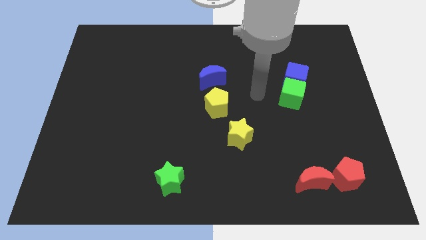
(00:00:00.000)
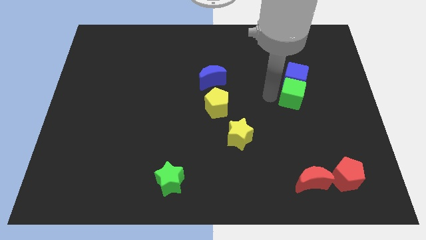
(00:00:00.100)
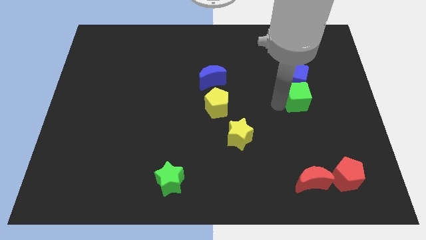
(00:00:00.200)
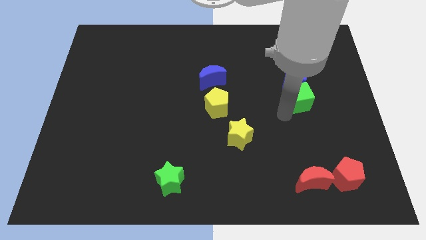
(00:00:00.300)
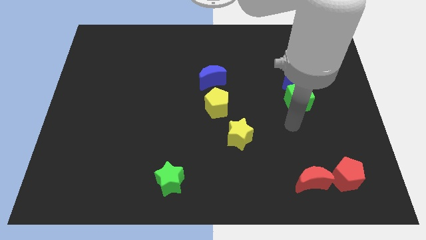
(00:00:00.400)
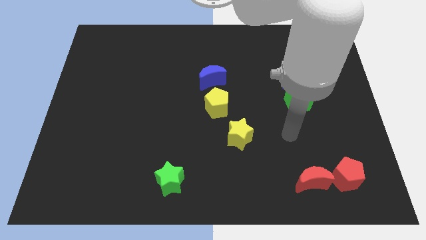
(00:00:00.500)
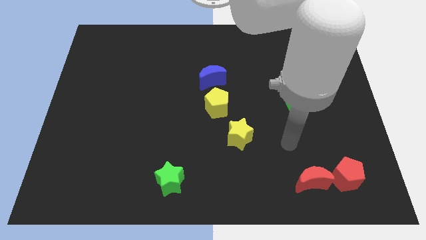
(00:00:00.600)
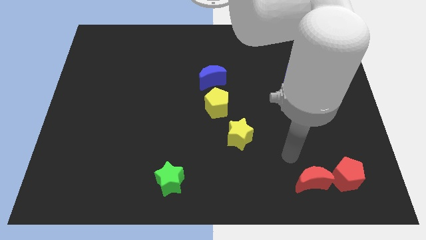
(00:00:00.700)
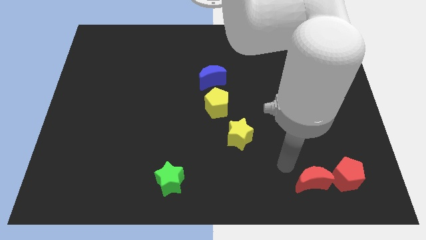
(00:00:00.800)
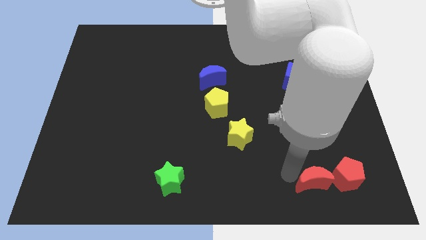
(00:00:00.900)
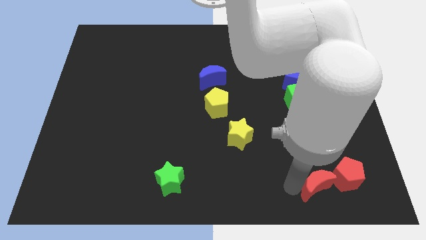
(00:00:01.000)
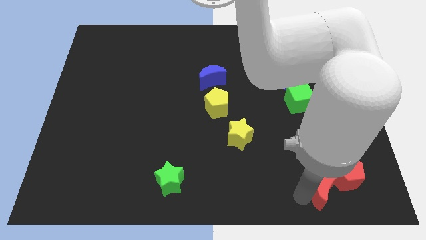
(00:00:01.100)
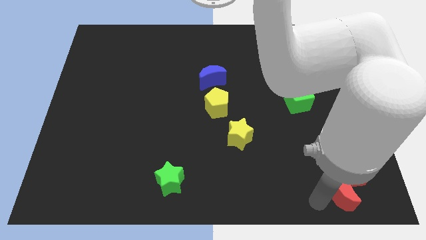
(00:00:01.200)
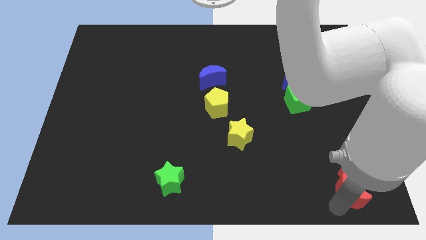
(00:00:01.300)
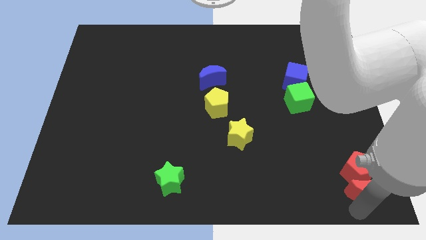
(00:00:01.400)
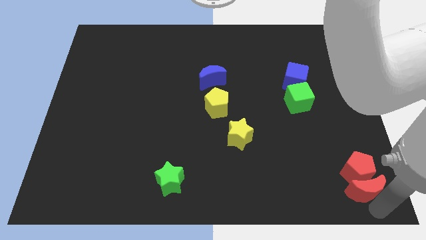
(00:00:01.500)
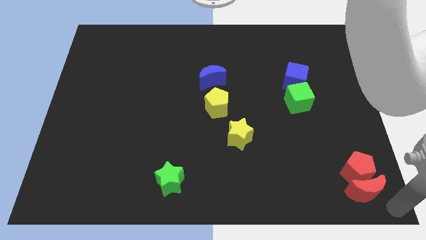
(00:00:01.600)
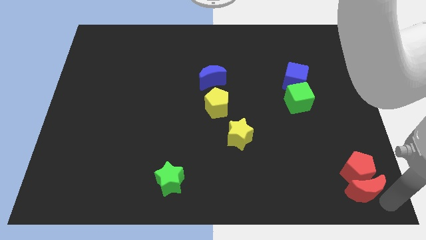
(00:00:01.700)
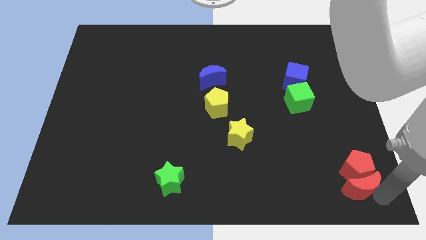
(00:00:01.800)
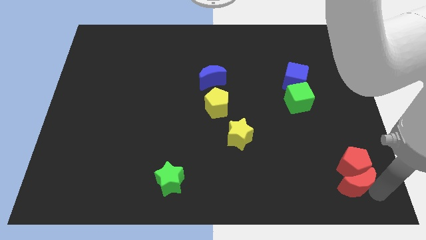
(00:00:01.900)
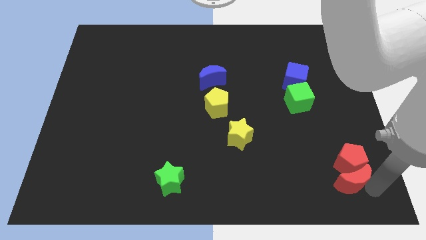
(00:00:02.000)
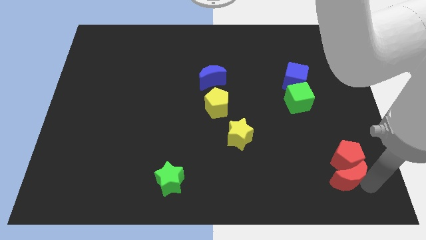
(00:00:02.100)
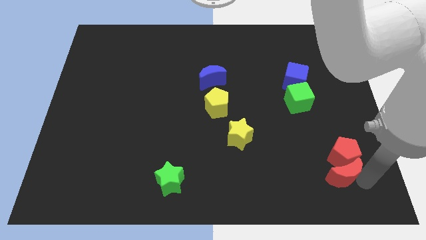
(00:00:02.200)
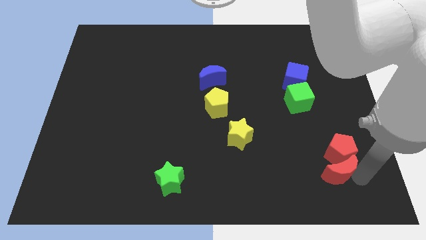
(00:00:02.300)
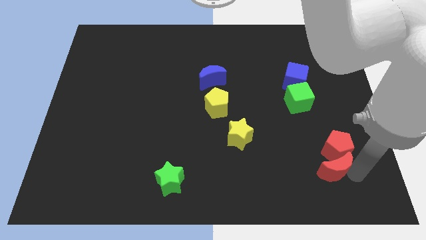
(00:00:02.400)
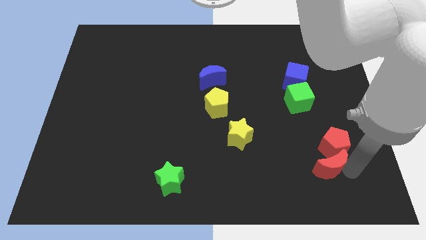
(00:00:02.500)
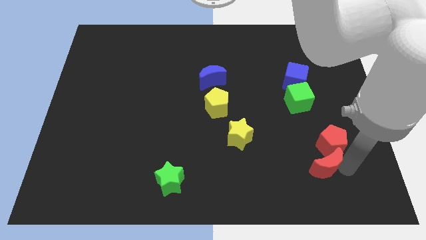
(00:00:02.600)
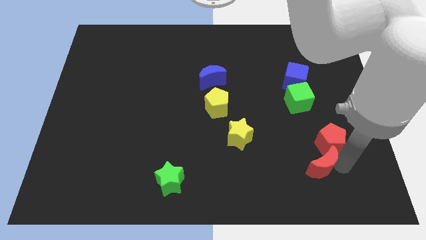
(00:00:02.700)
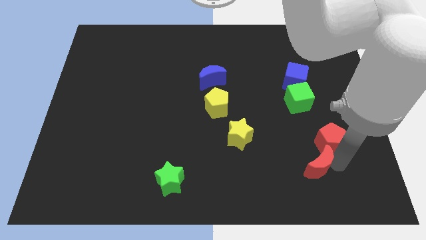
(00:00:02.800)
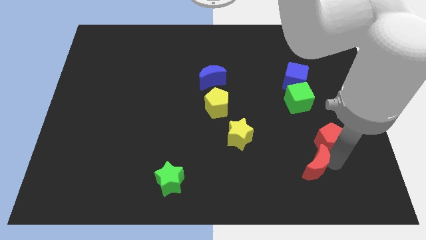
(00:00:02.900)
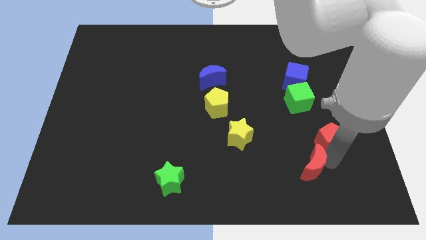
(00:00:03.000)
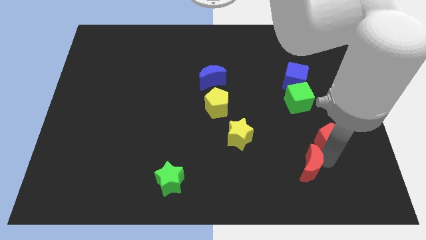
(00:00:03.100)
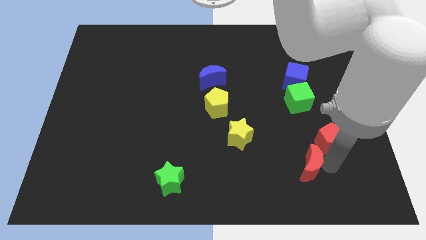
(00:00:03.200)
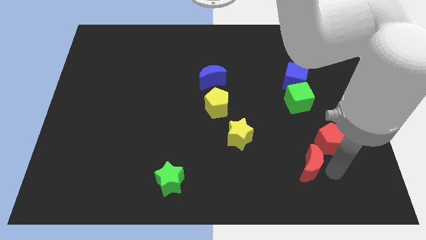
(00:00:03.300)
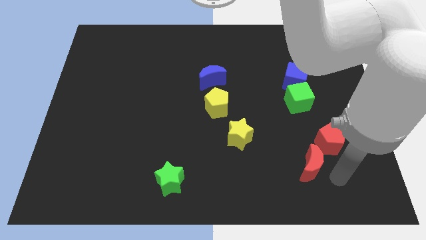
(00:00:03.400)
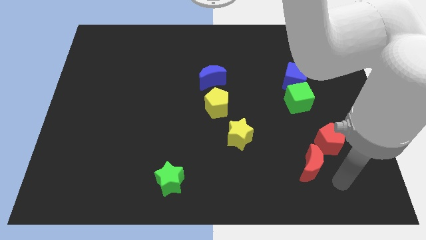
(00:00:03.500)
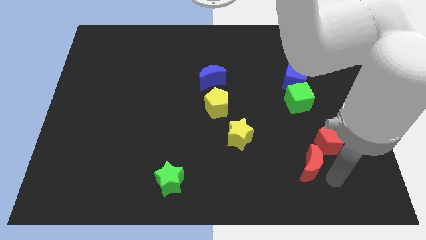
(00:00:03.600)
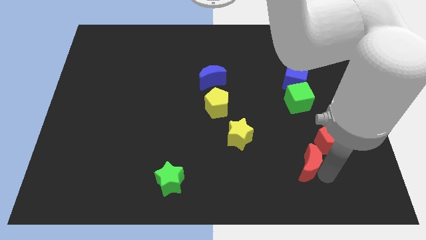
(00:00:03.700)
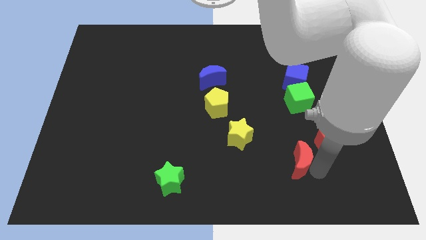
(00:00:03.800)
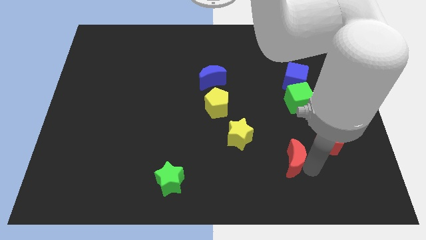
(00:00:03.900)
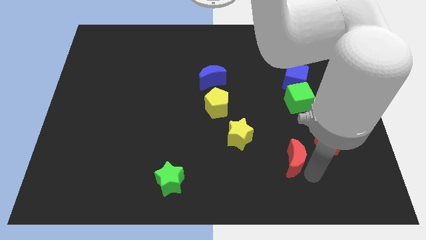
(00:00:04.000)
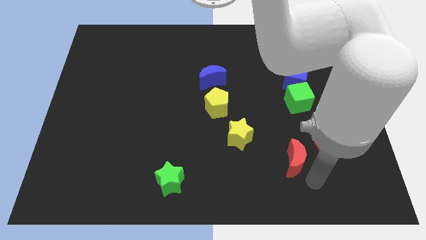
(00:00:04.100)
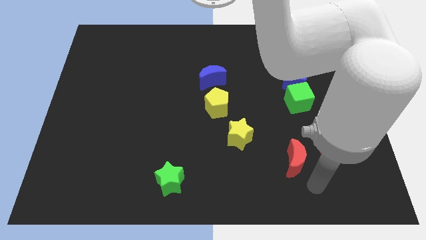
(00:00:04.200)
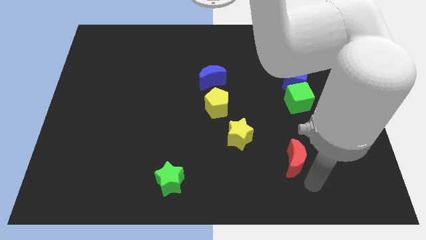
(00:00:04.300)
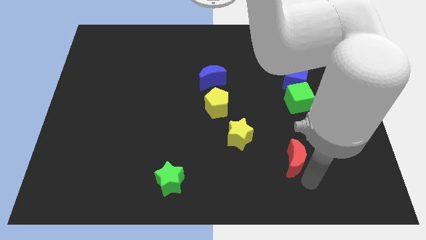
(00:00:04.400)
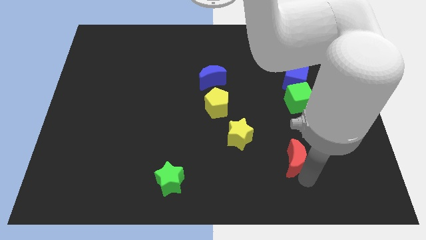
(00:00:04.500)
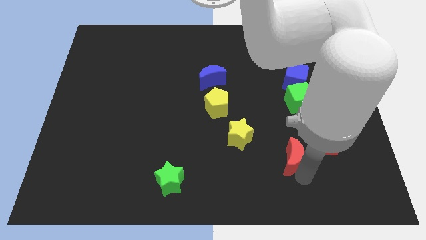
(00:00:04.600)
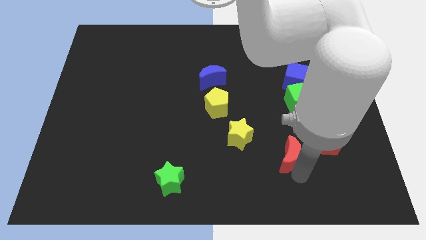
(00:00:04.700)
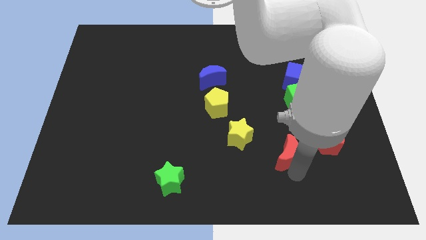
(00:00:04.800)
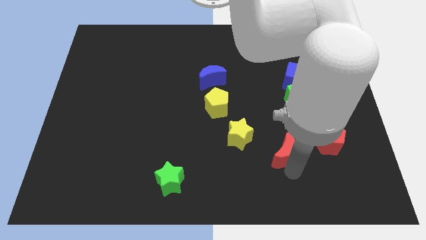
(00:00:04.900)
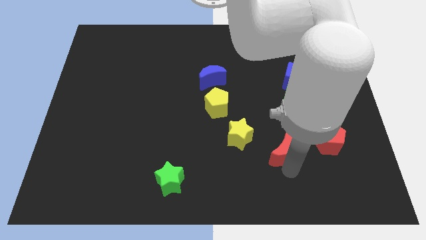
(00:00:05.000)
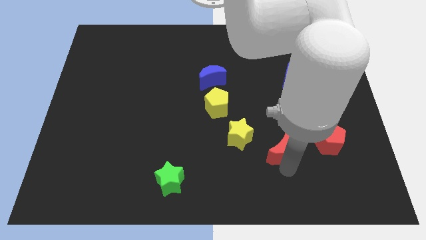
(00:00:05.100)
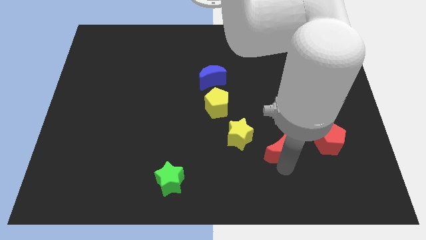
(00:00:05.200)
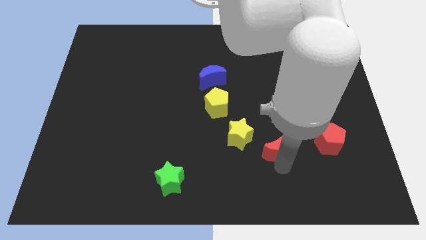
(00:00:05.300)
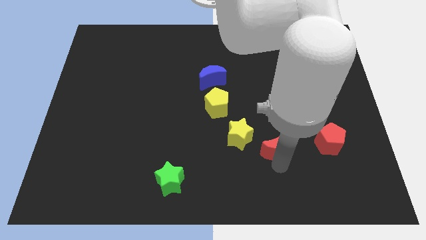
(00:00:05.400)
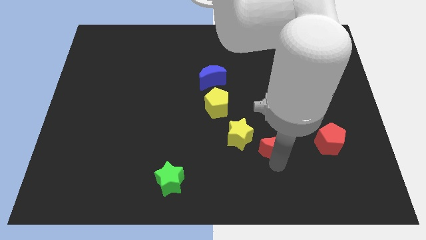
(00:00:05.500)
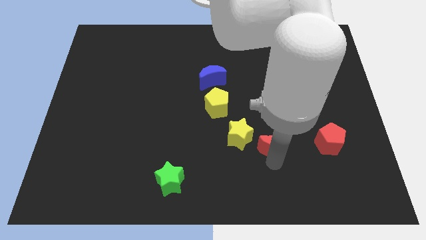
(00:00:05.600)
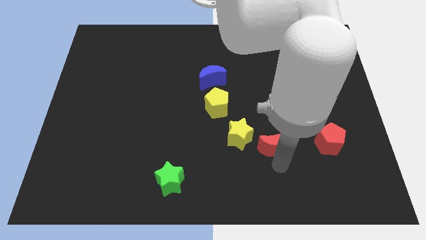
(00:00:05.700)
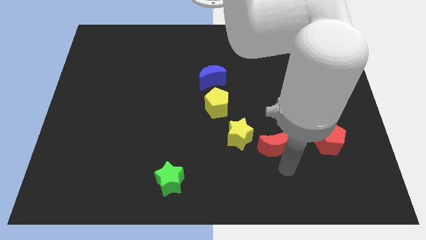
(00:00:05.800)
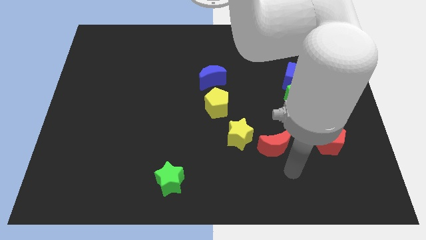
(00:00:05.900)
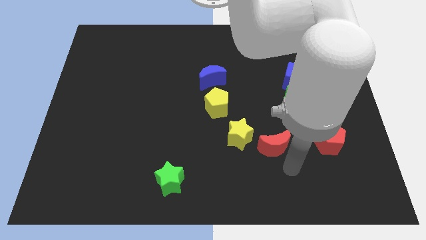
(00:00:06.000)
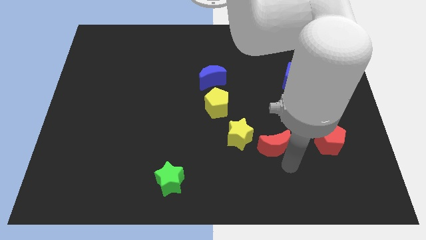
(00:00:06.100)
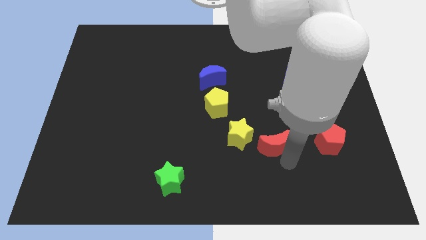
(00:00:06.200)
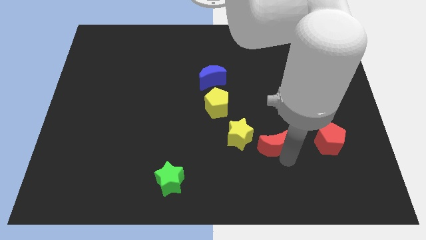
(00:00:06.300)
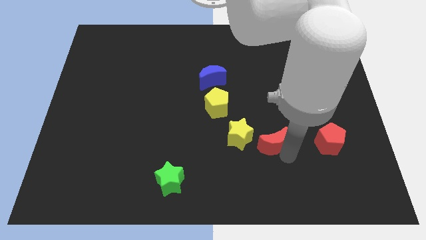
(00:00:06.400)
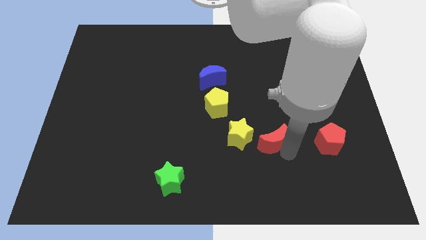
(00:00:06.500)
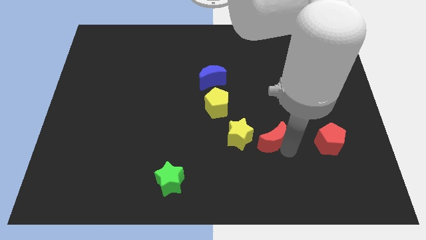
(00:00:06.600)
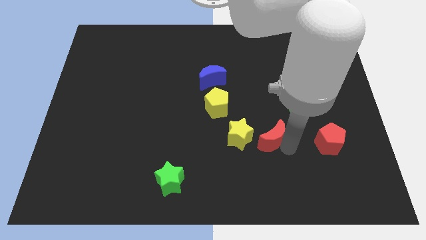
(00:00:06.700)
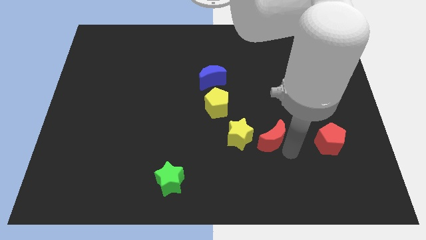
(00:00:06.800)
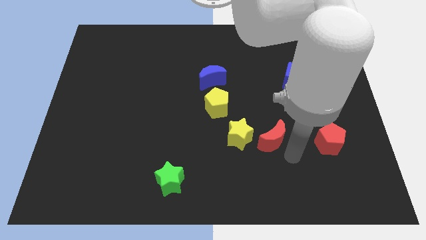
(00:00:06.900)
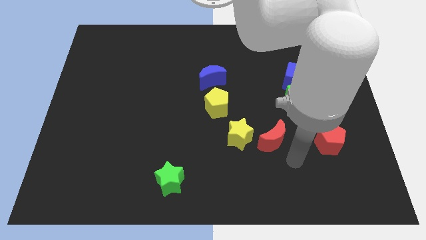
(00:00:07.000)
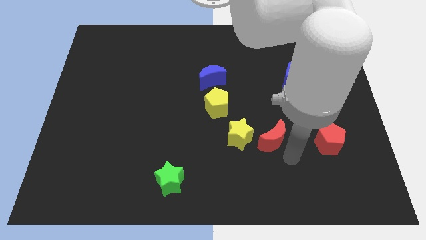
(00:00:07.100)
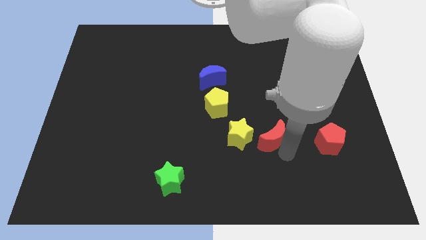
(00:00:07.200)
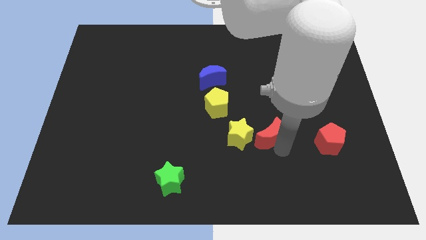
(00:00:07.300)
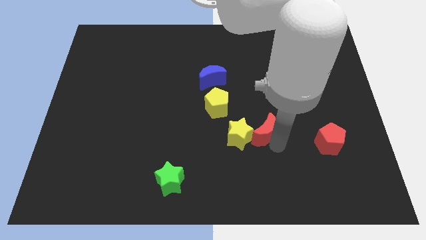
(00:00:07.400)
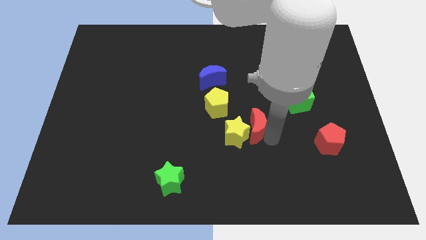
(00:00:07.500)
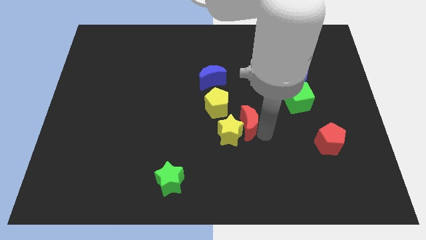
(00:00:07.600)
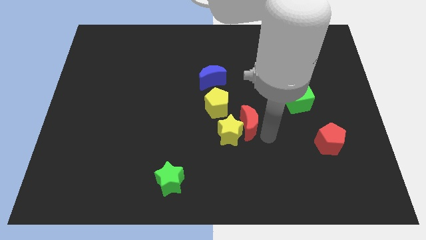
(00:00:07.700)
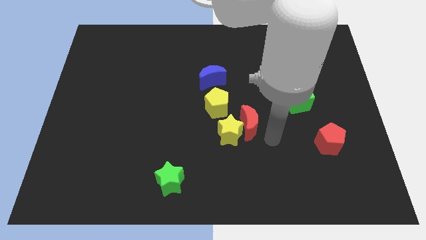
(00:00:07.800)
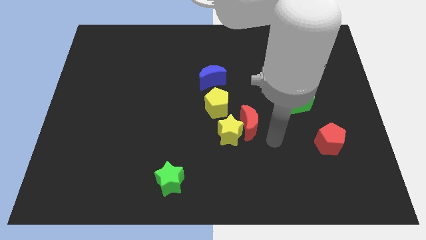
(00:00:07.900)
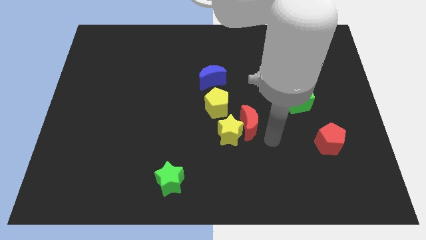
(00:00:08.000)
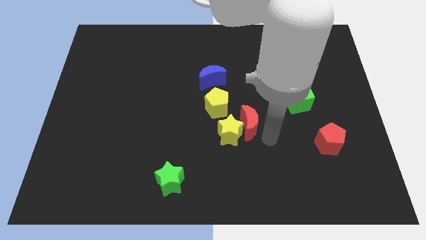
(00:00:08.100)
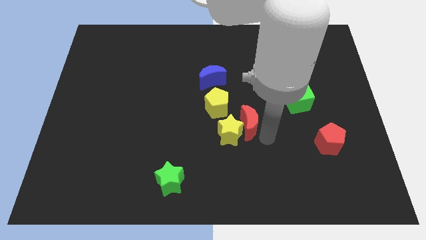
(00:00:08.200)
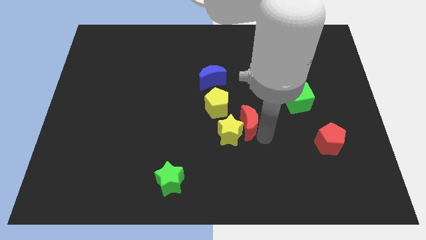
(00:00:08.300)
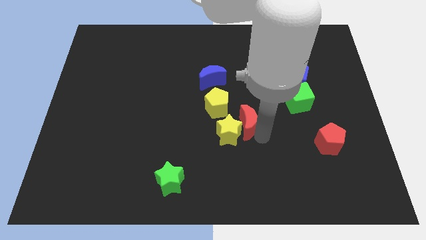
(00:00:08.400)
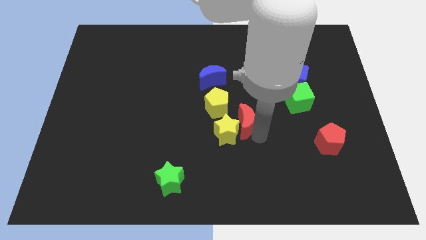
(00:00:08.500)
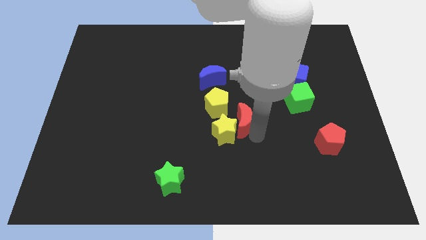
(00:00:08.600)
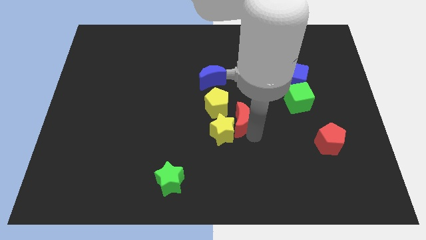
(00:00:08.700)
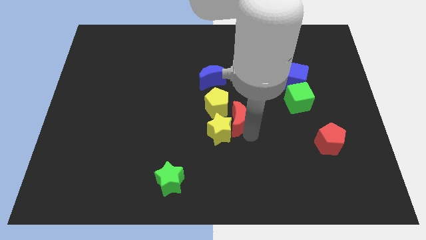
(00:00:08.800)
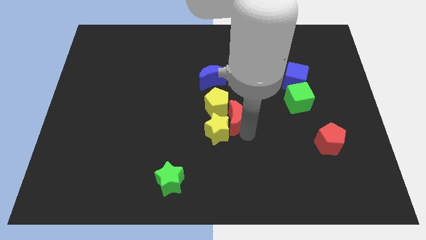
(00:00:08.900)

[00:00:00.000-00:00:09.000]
move the red moon close to the yellow pentagon
